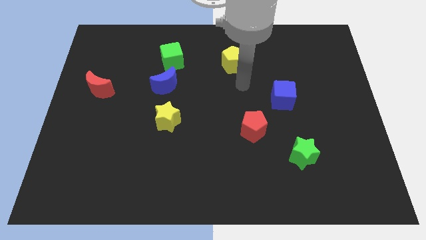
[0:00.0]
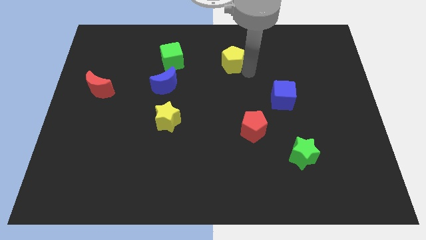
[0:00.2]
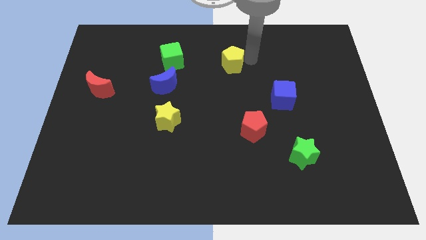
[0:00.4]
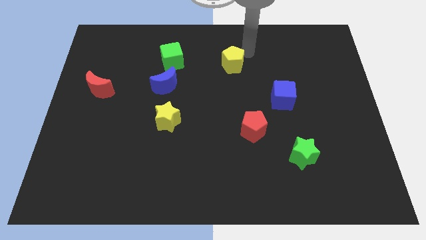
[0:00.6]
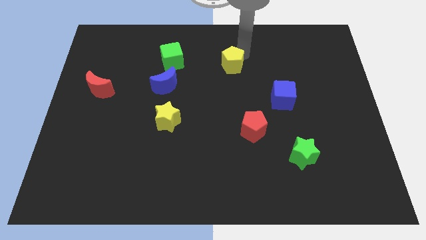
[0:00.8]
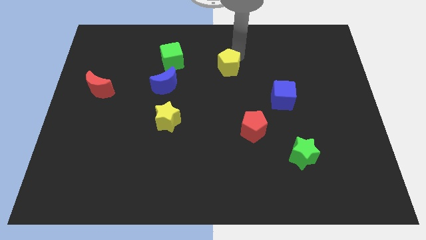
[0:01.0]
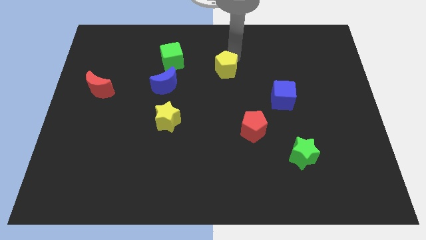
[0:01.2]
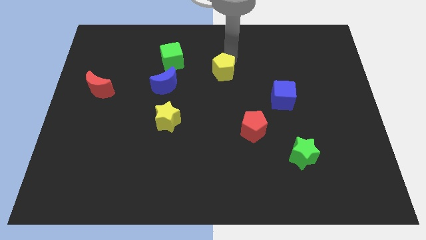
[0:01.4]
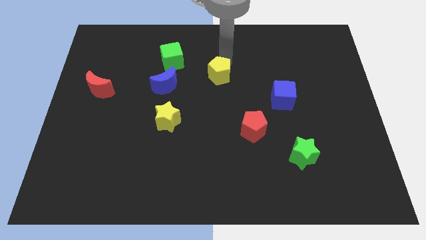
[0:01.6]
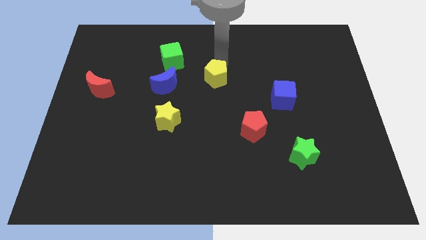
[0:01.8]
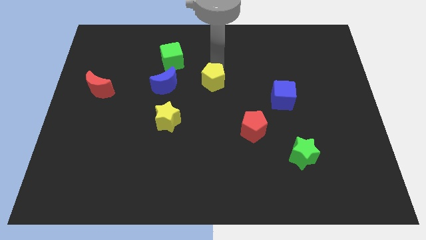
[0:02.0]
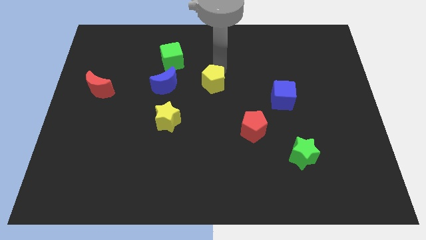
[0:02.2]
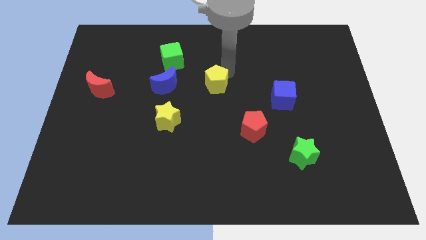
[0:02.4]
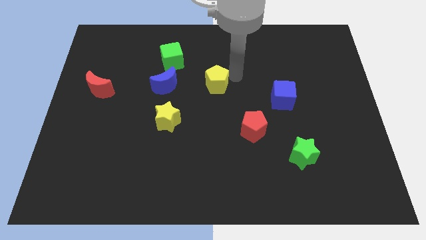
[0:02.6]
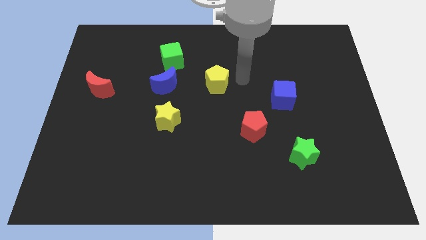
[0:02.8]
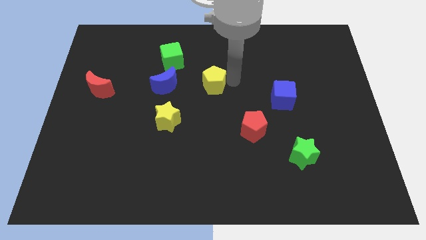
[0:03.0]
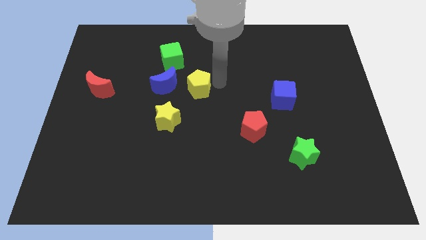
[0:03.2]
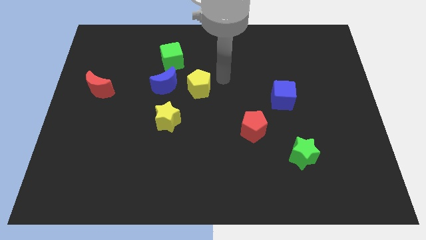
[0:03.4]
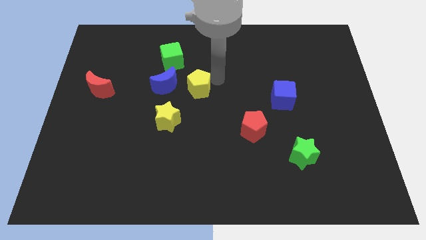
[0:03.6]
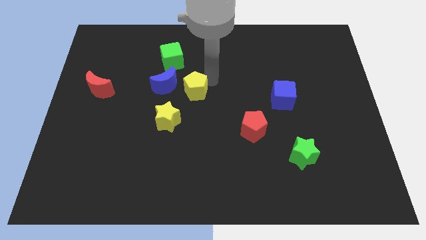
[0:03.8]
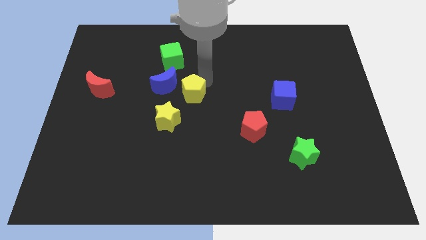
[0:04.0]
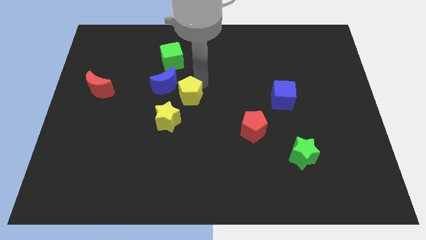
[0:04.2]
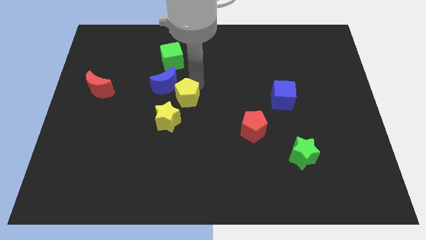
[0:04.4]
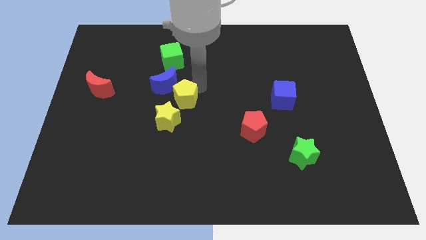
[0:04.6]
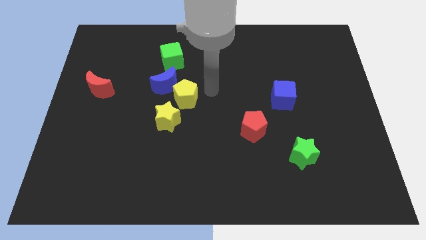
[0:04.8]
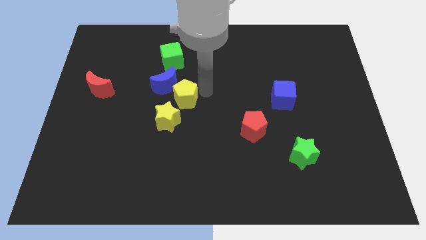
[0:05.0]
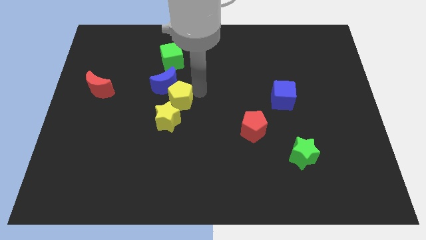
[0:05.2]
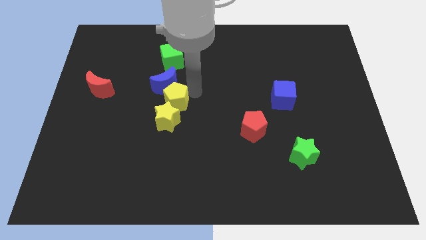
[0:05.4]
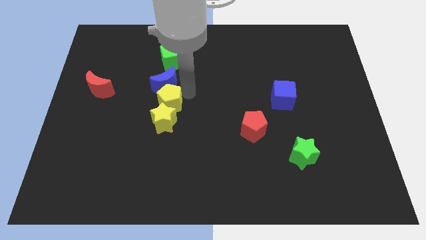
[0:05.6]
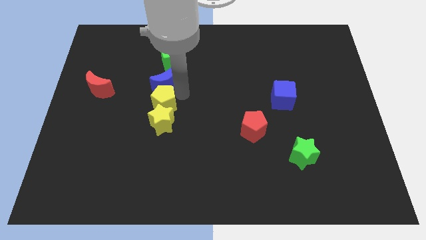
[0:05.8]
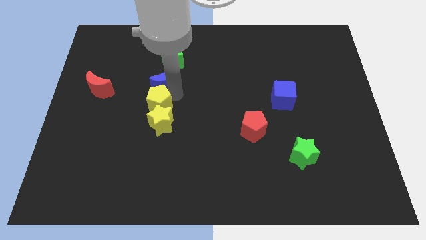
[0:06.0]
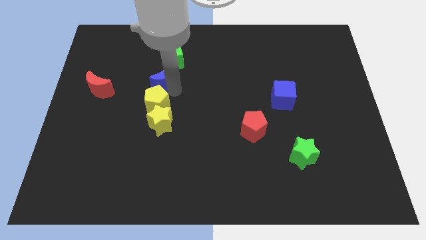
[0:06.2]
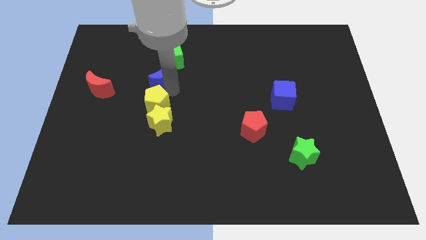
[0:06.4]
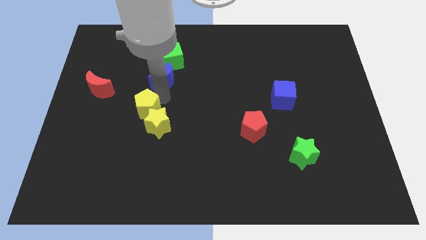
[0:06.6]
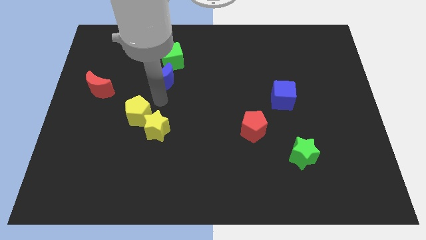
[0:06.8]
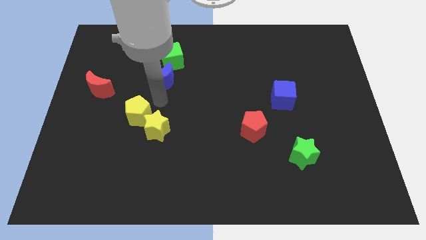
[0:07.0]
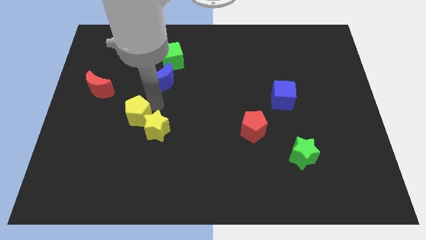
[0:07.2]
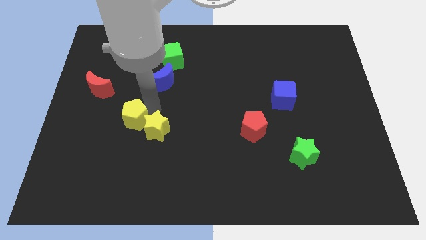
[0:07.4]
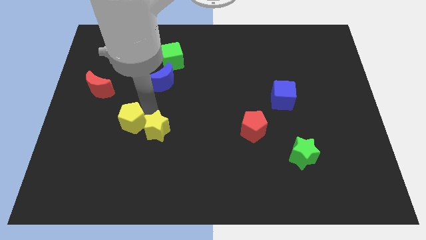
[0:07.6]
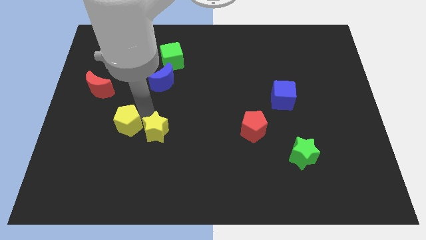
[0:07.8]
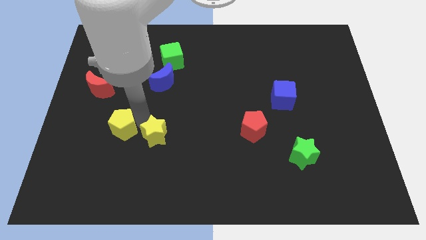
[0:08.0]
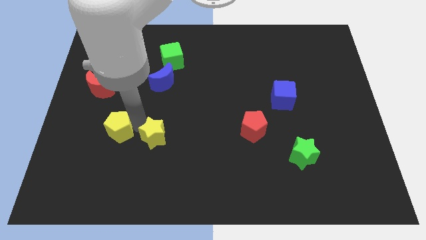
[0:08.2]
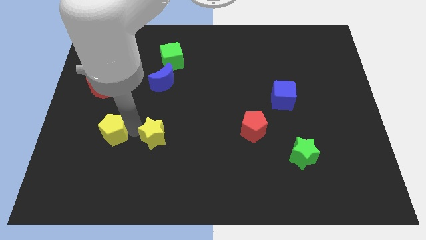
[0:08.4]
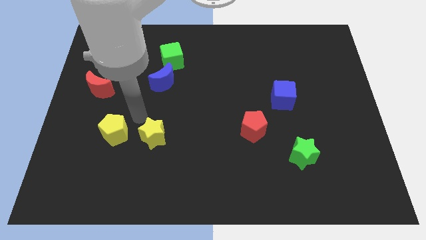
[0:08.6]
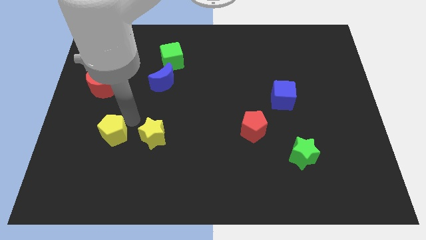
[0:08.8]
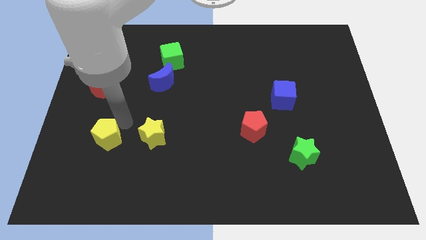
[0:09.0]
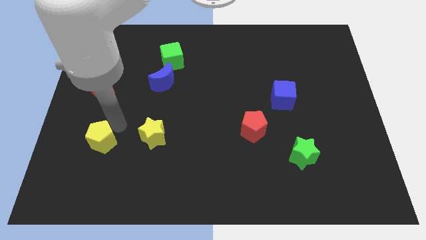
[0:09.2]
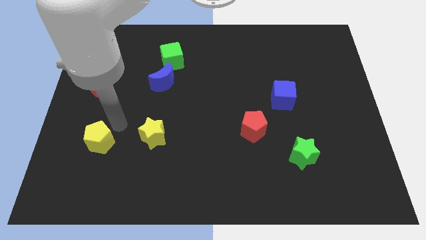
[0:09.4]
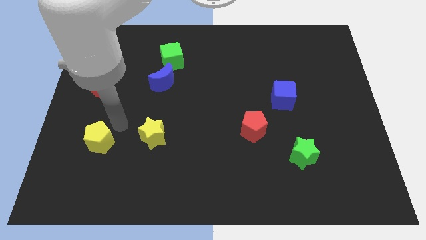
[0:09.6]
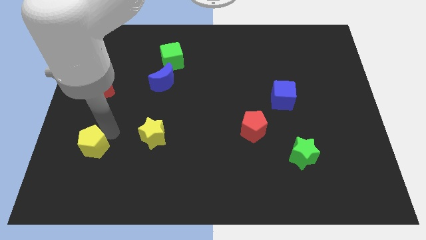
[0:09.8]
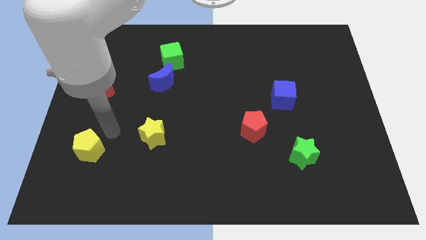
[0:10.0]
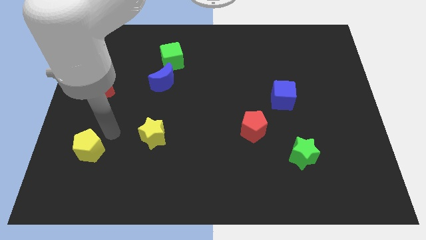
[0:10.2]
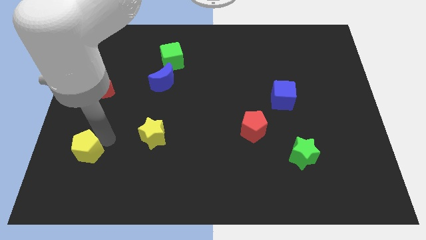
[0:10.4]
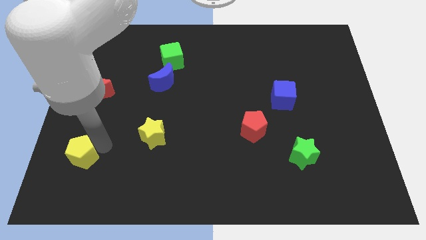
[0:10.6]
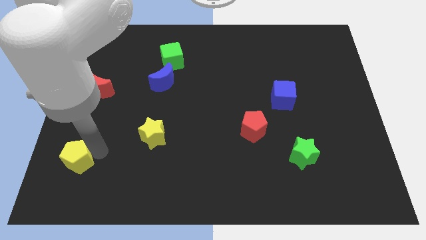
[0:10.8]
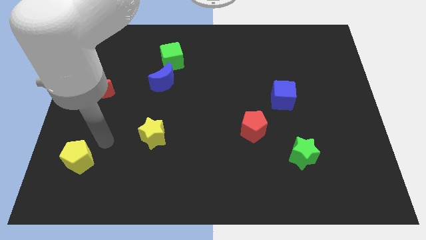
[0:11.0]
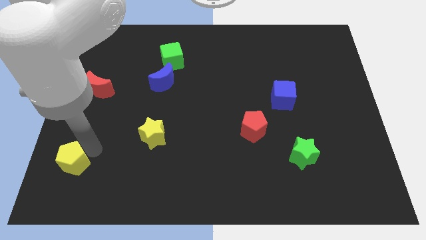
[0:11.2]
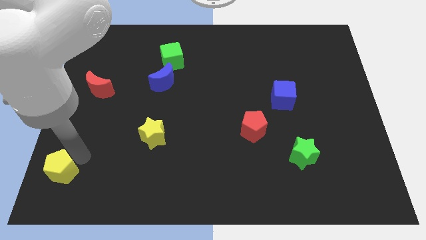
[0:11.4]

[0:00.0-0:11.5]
put the yellow pentagon to the bottom left corner

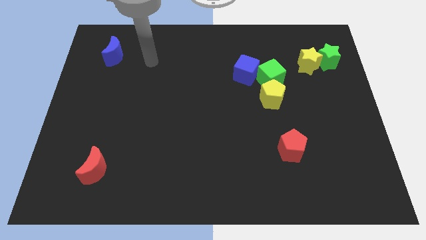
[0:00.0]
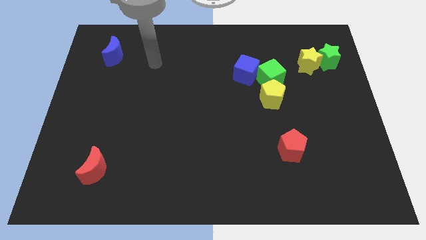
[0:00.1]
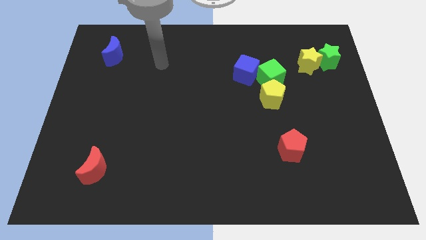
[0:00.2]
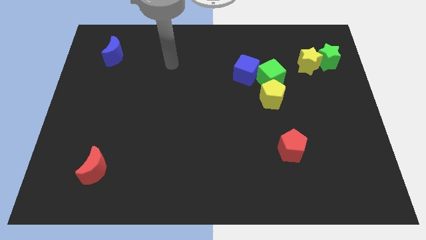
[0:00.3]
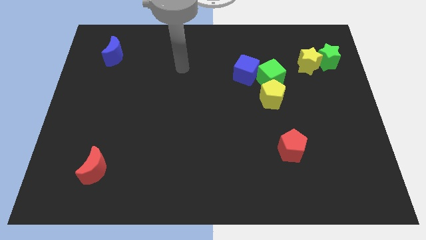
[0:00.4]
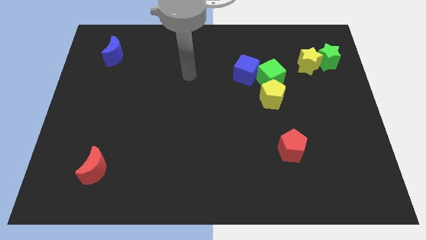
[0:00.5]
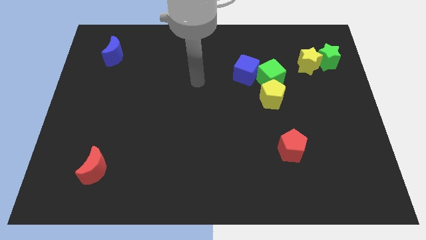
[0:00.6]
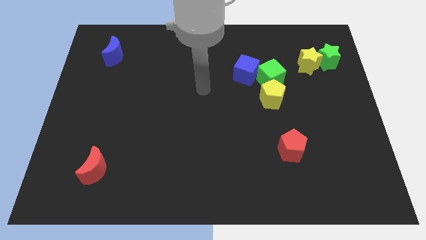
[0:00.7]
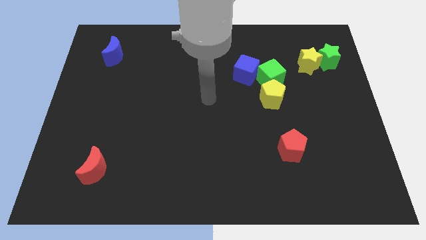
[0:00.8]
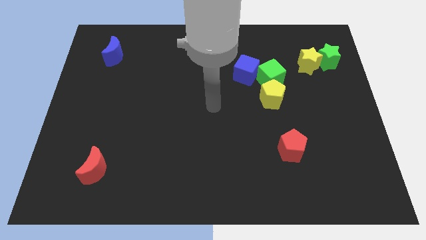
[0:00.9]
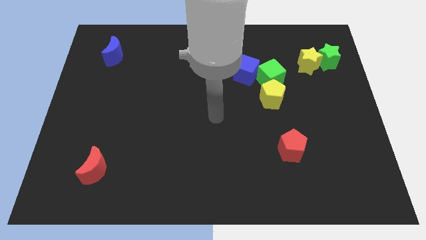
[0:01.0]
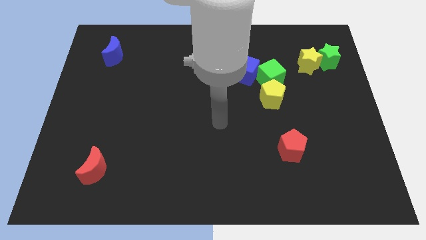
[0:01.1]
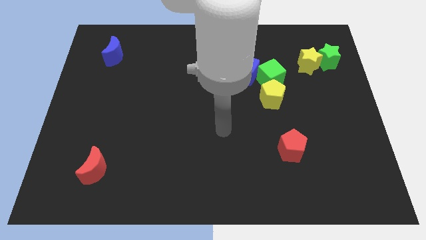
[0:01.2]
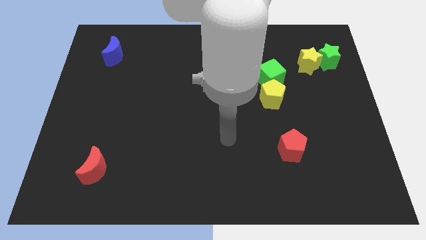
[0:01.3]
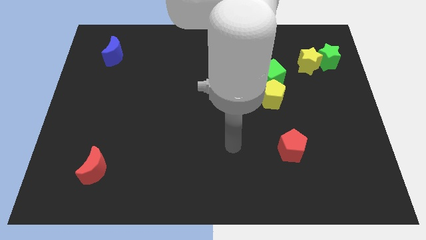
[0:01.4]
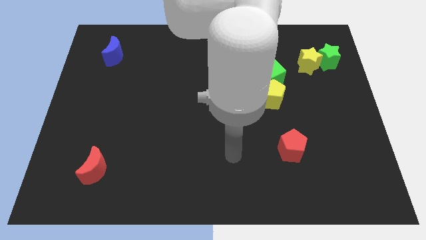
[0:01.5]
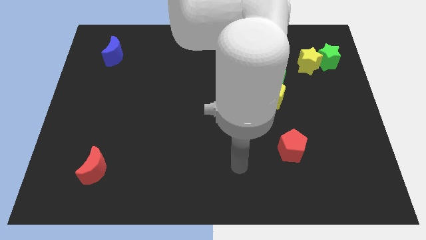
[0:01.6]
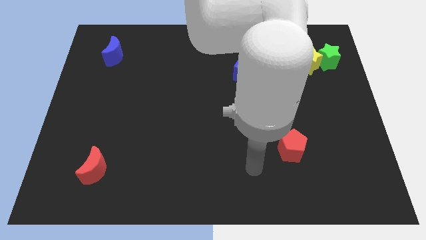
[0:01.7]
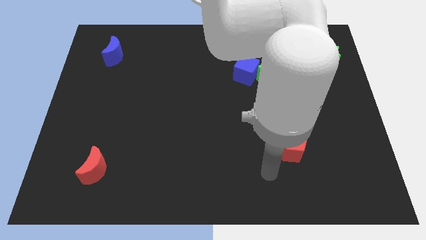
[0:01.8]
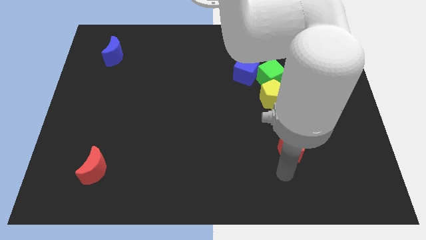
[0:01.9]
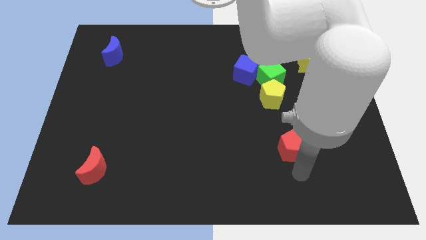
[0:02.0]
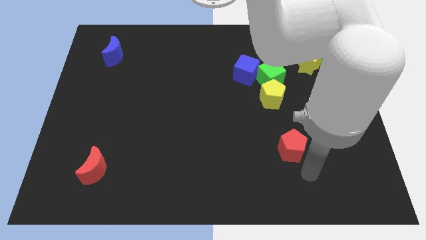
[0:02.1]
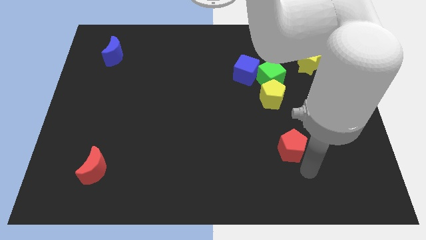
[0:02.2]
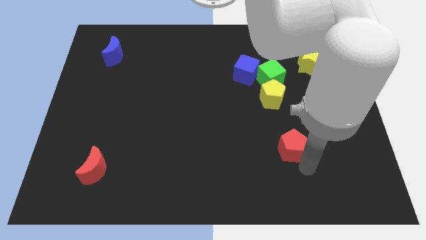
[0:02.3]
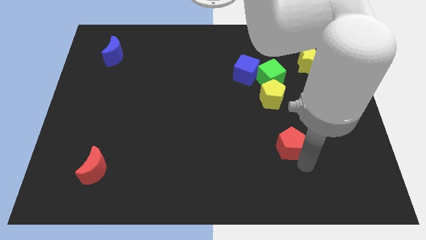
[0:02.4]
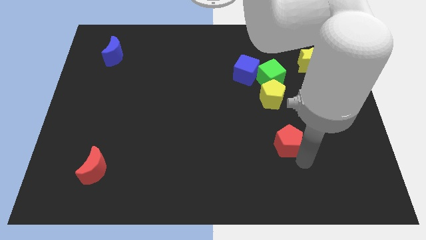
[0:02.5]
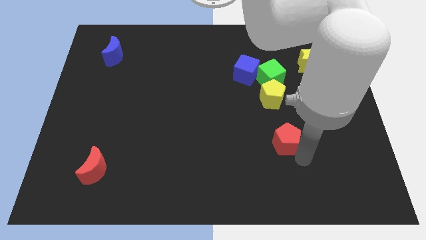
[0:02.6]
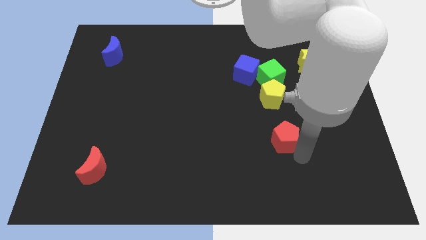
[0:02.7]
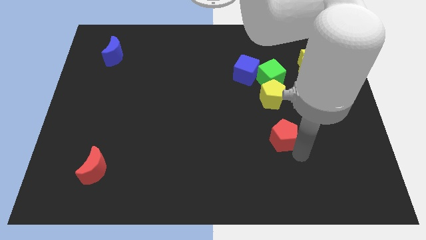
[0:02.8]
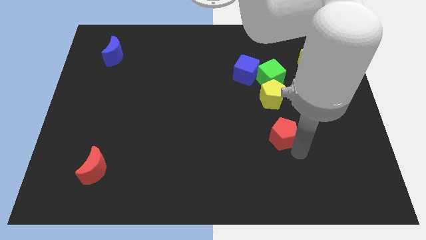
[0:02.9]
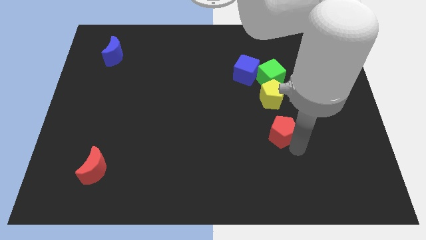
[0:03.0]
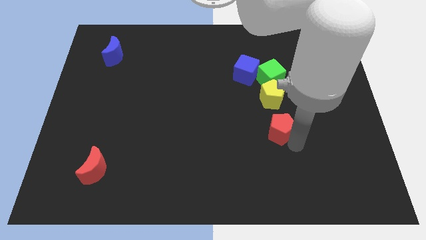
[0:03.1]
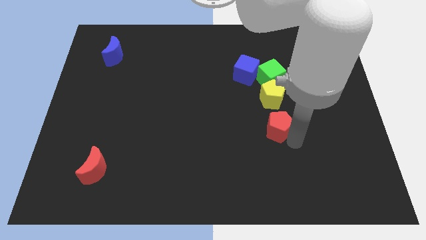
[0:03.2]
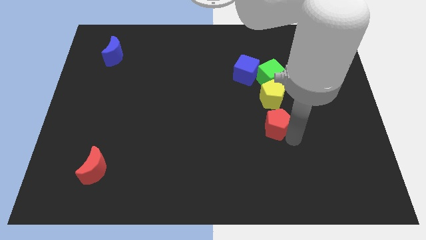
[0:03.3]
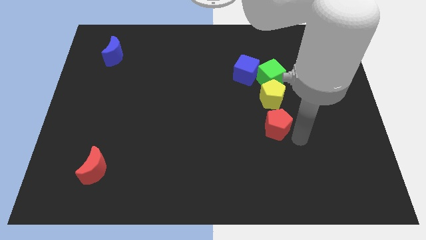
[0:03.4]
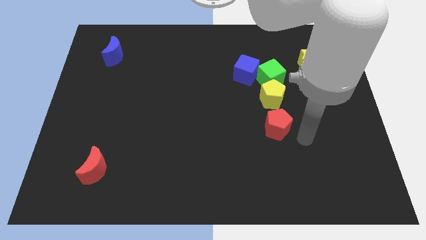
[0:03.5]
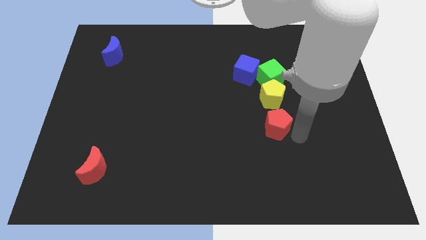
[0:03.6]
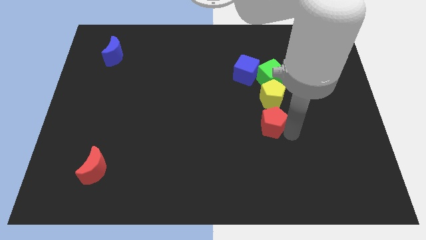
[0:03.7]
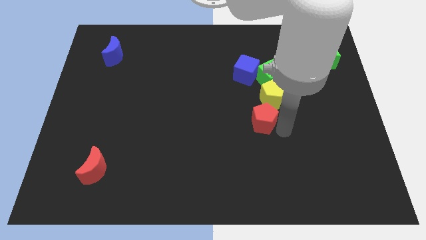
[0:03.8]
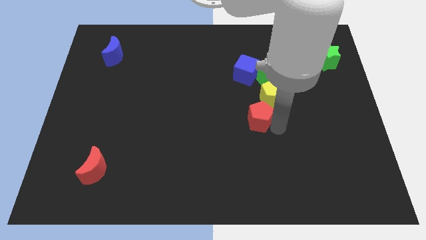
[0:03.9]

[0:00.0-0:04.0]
slide the red pentagon to the center of the board
